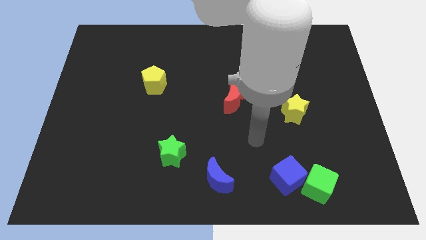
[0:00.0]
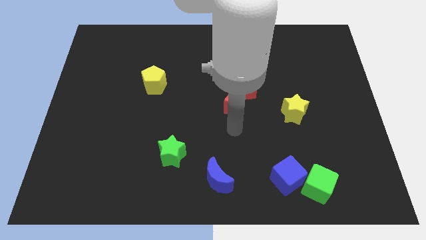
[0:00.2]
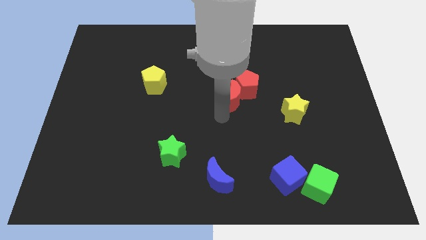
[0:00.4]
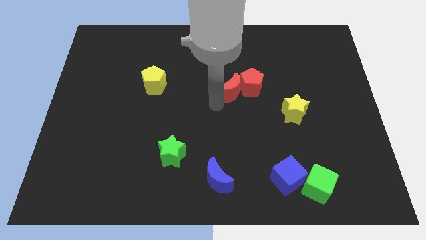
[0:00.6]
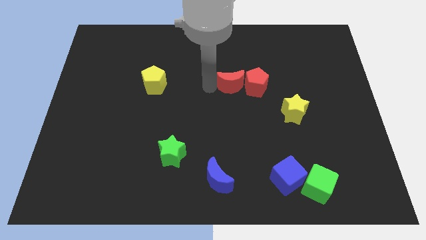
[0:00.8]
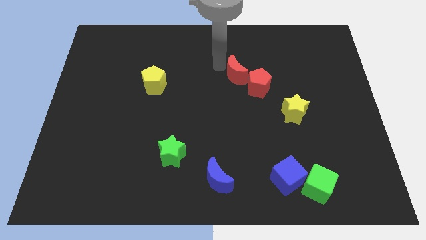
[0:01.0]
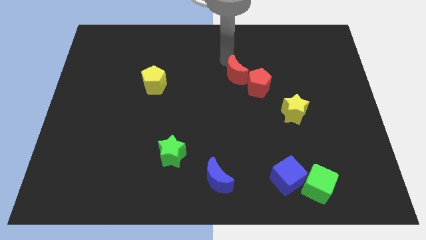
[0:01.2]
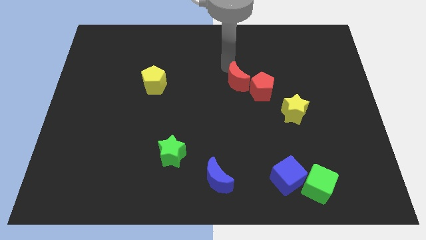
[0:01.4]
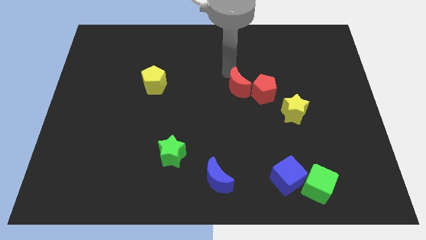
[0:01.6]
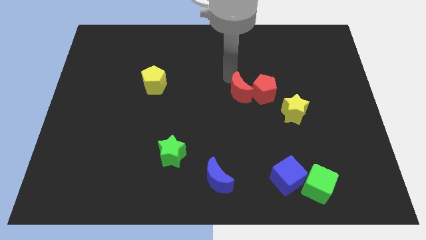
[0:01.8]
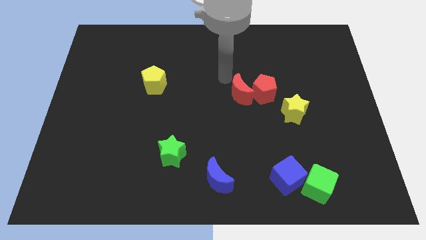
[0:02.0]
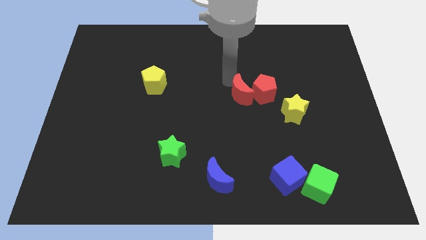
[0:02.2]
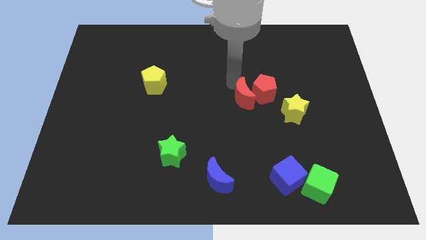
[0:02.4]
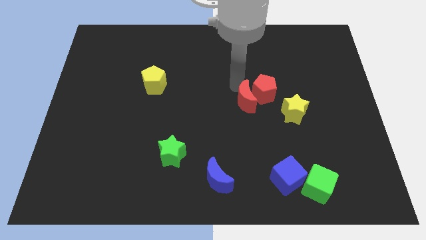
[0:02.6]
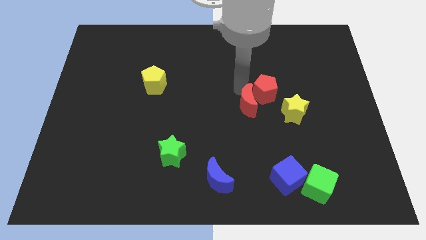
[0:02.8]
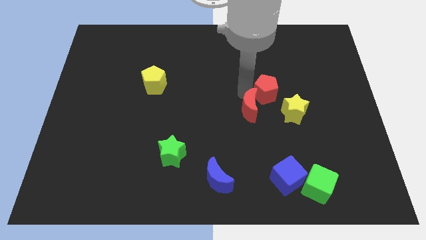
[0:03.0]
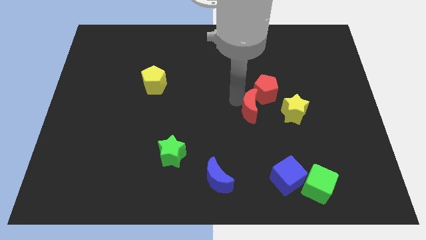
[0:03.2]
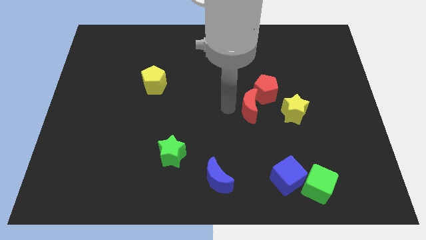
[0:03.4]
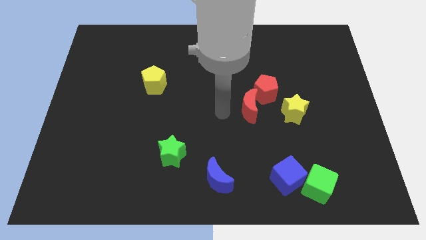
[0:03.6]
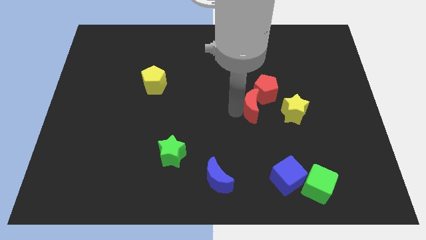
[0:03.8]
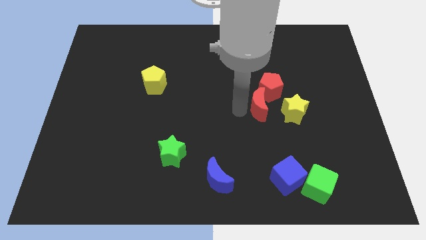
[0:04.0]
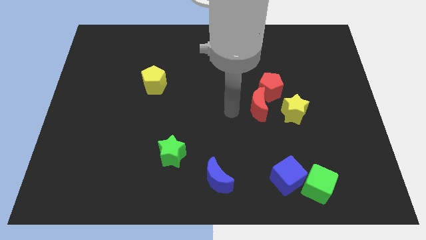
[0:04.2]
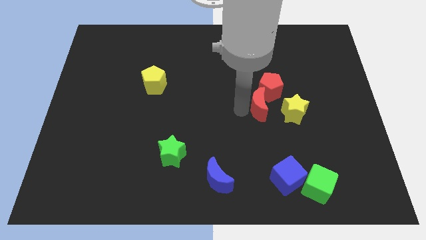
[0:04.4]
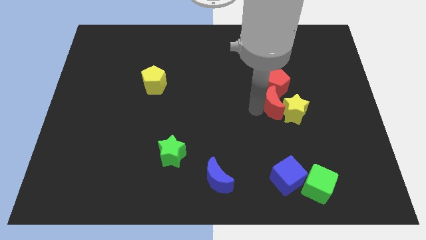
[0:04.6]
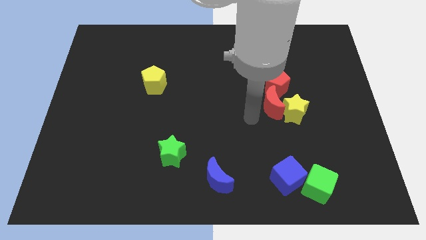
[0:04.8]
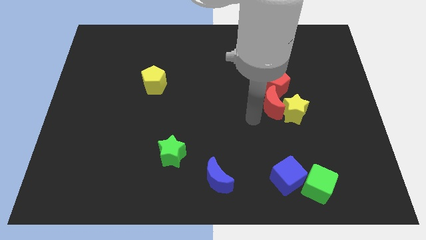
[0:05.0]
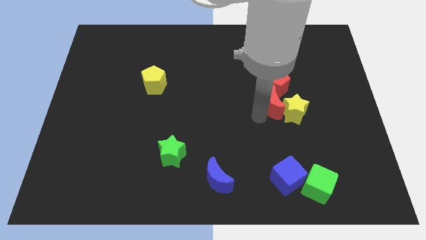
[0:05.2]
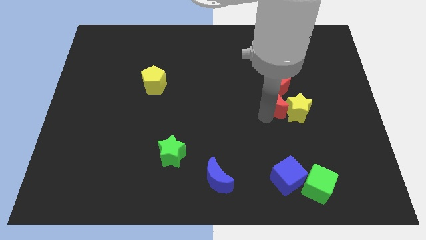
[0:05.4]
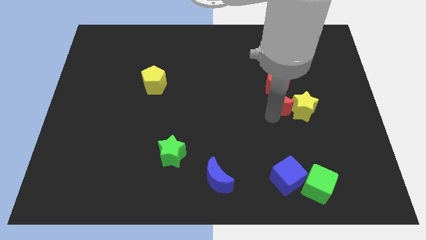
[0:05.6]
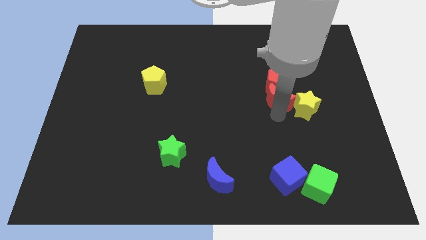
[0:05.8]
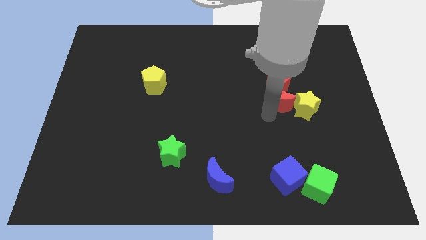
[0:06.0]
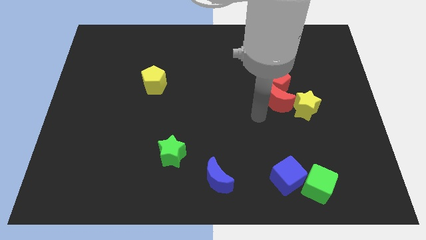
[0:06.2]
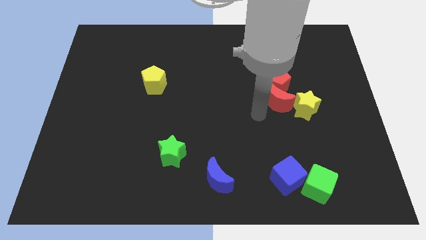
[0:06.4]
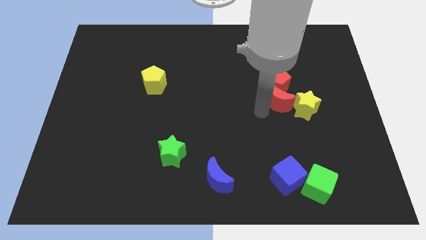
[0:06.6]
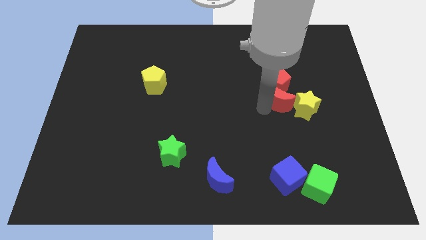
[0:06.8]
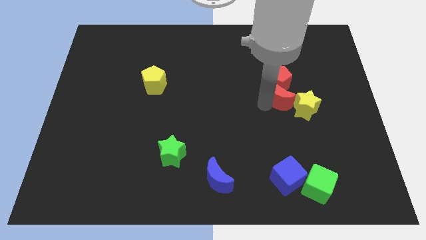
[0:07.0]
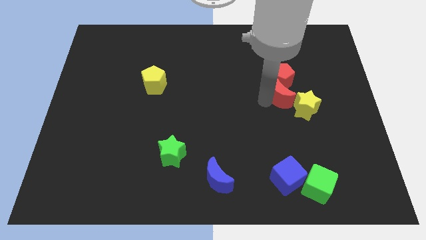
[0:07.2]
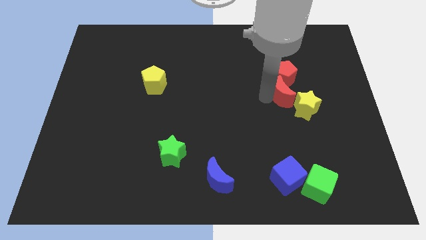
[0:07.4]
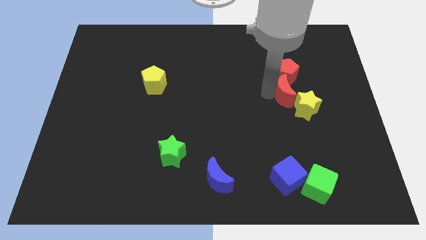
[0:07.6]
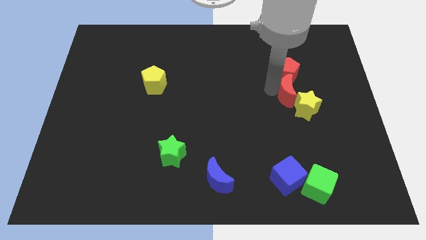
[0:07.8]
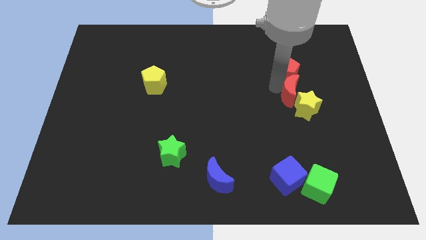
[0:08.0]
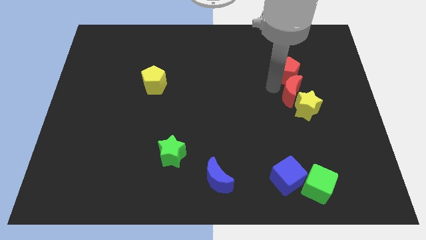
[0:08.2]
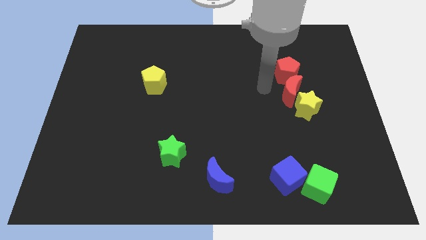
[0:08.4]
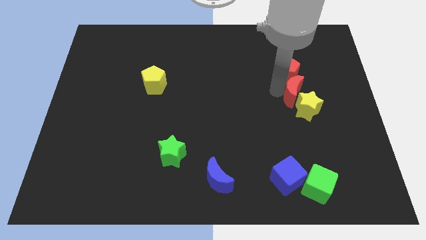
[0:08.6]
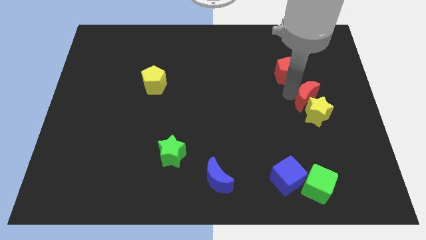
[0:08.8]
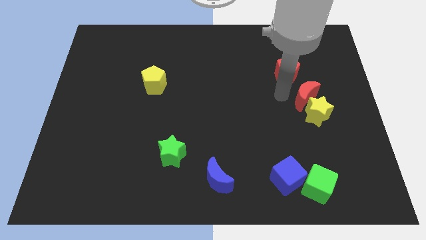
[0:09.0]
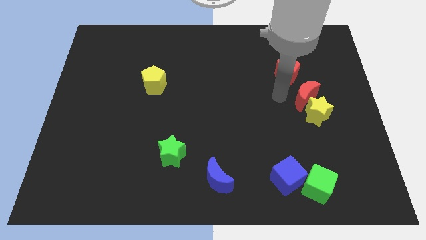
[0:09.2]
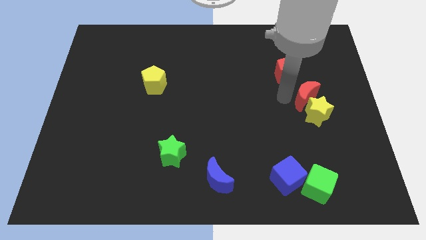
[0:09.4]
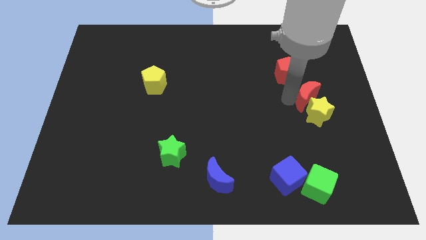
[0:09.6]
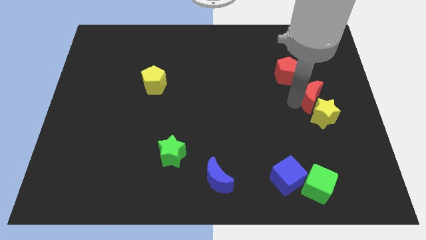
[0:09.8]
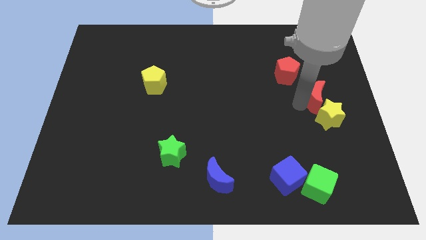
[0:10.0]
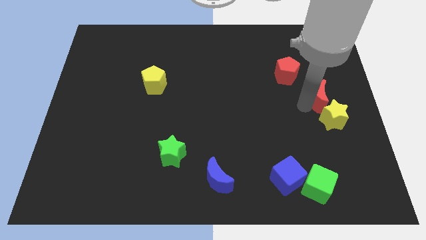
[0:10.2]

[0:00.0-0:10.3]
push the red moon to the right side of the board

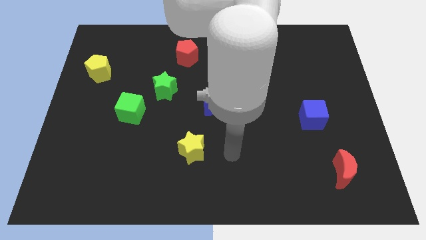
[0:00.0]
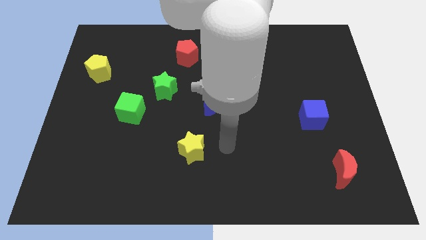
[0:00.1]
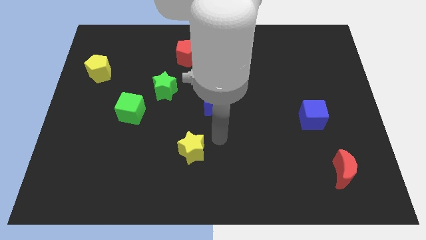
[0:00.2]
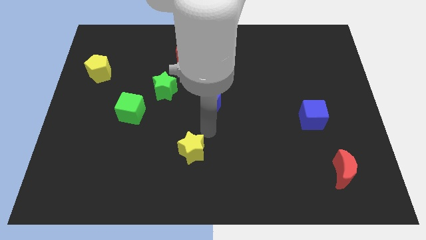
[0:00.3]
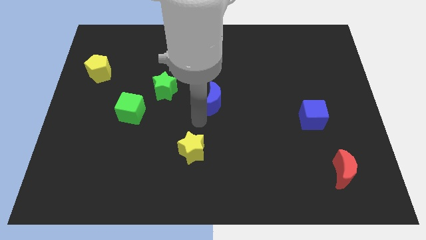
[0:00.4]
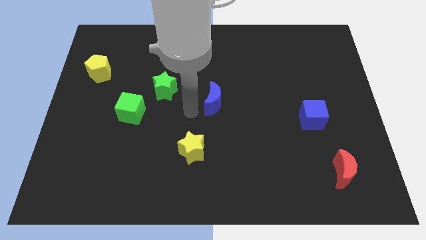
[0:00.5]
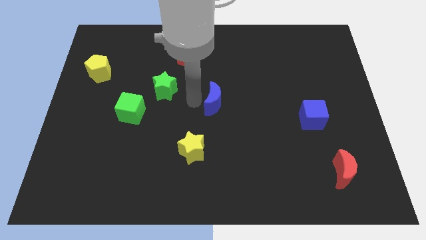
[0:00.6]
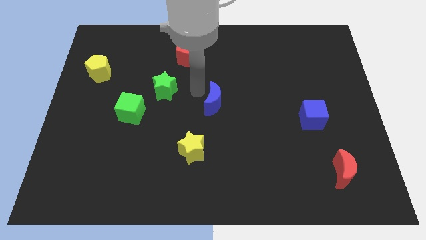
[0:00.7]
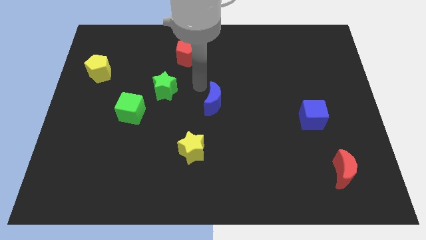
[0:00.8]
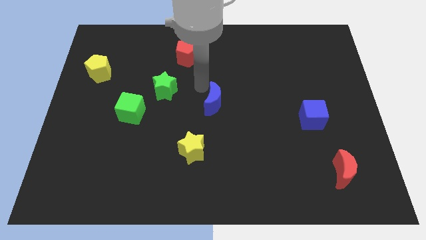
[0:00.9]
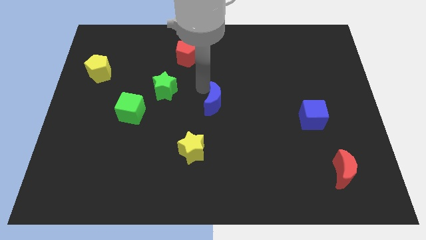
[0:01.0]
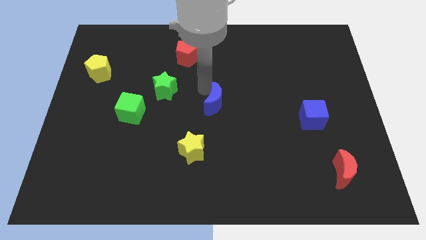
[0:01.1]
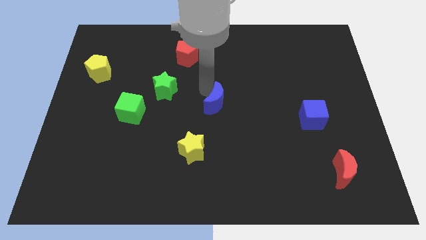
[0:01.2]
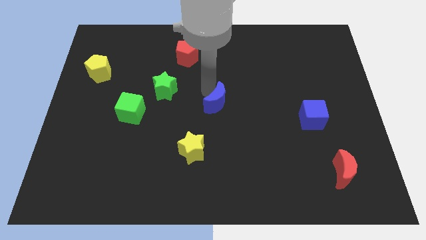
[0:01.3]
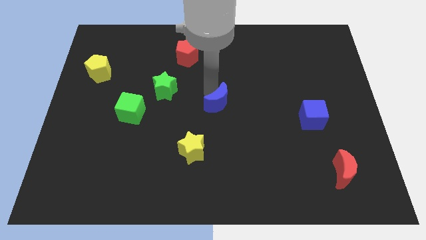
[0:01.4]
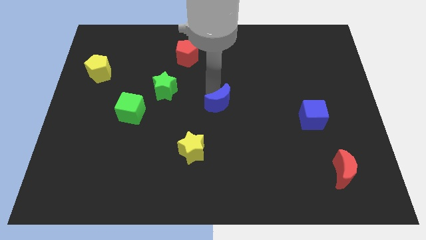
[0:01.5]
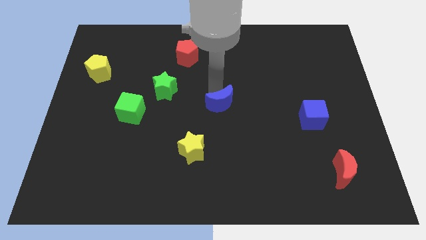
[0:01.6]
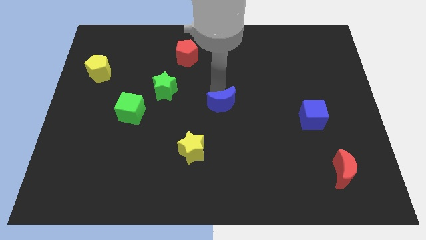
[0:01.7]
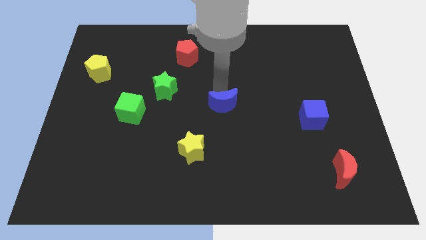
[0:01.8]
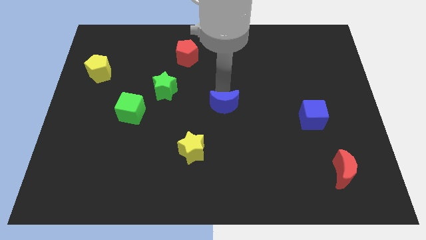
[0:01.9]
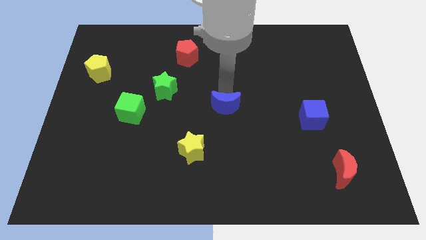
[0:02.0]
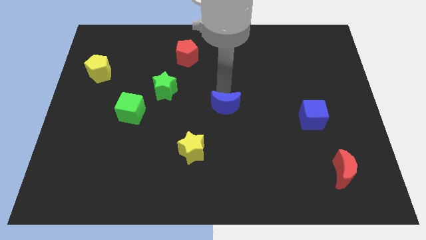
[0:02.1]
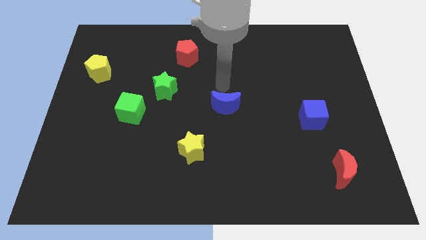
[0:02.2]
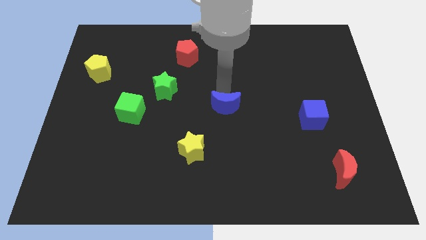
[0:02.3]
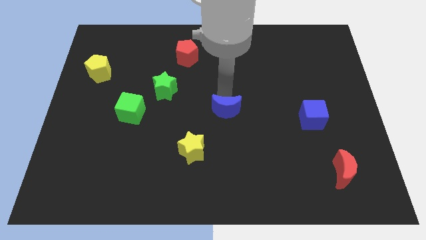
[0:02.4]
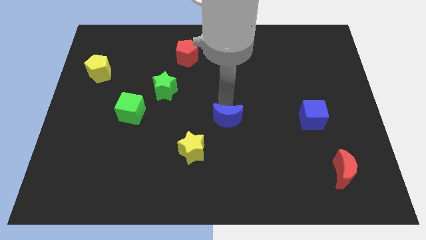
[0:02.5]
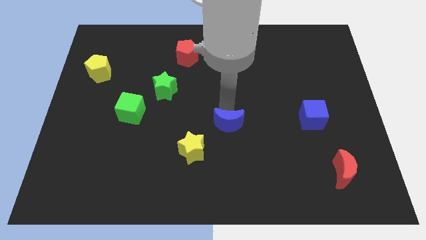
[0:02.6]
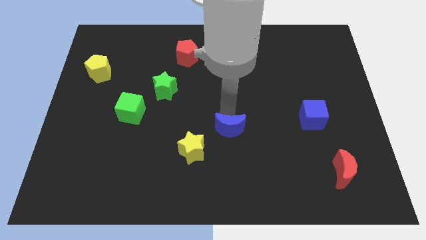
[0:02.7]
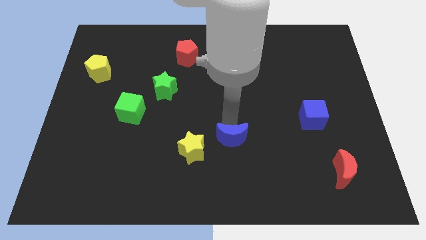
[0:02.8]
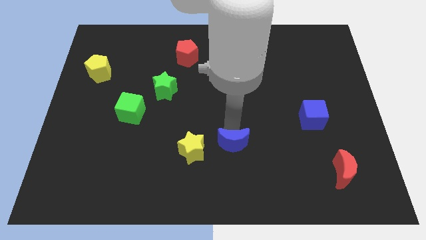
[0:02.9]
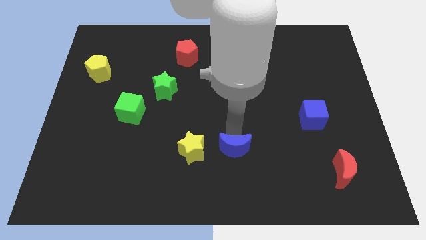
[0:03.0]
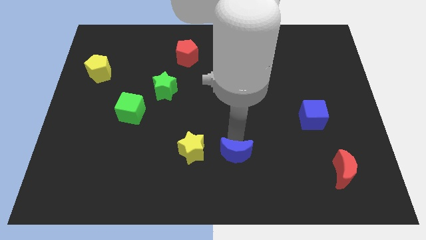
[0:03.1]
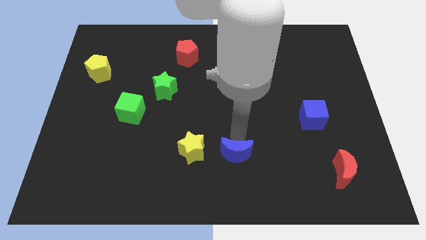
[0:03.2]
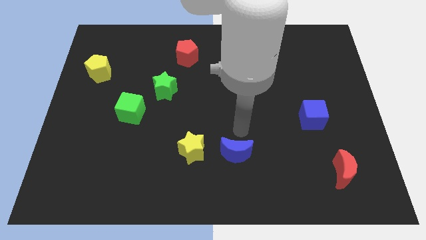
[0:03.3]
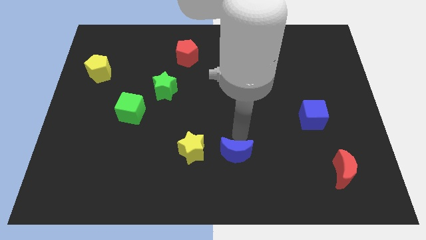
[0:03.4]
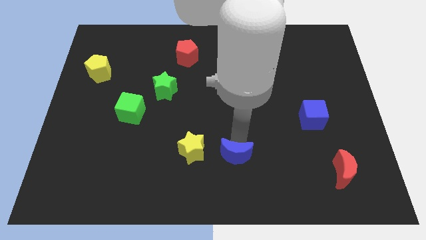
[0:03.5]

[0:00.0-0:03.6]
push the blue moon to the bottom side
